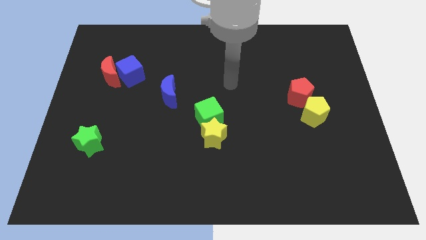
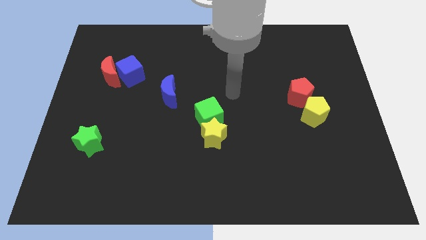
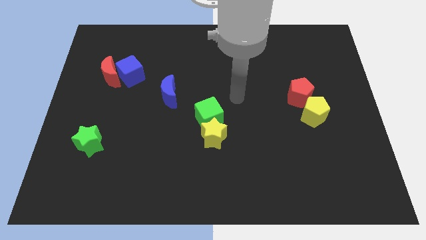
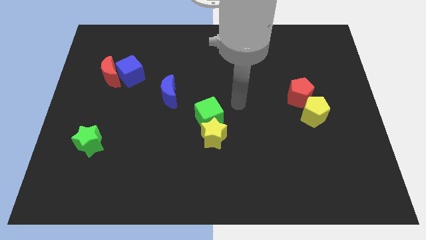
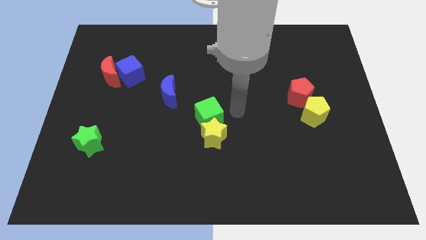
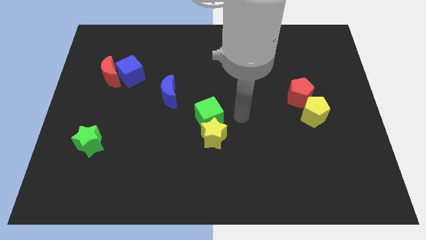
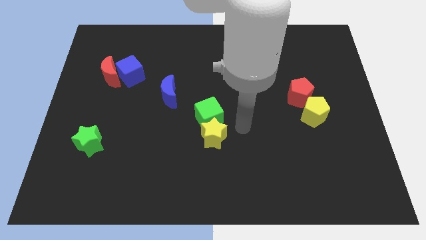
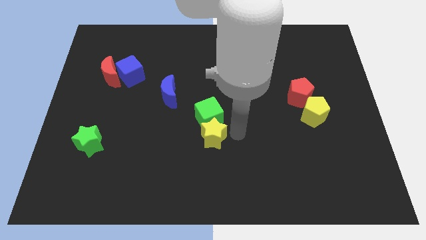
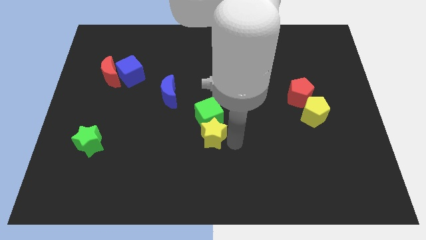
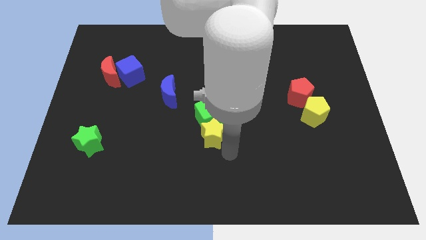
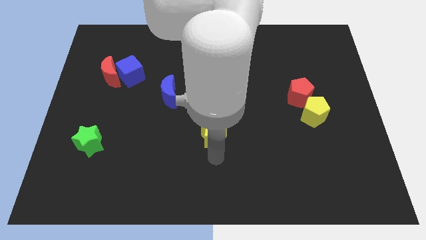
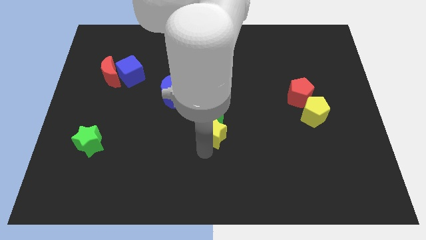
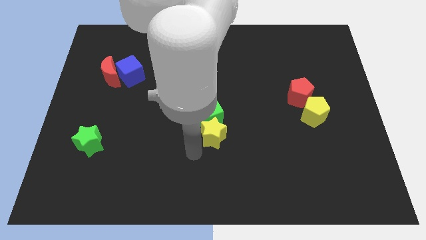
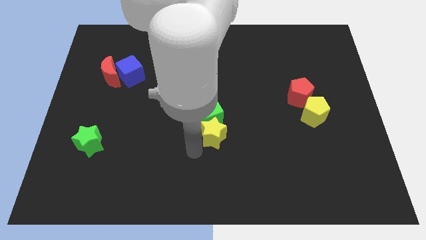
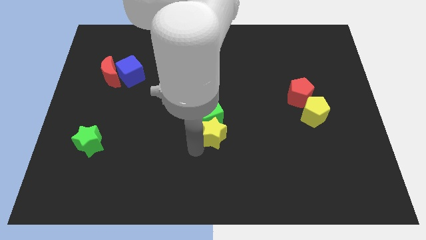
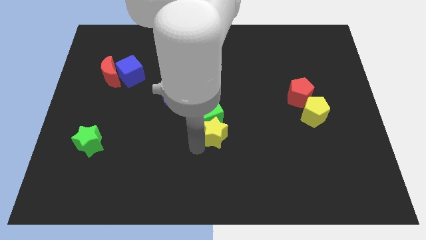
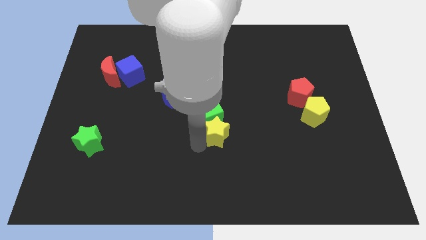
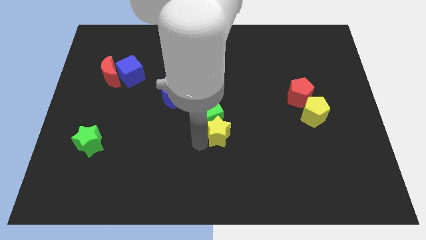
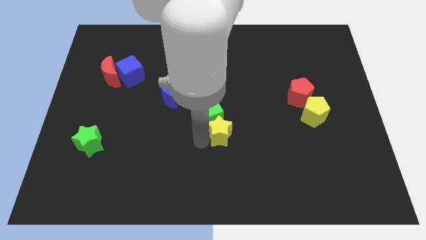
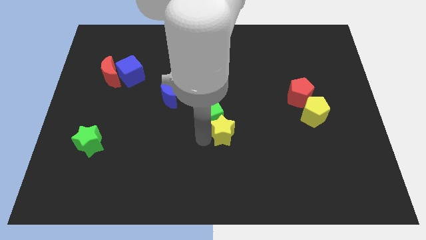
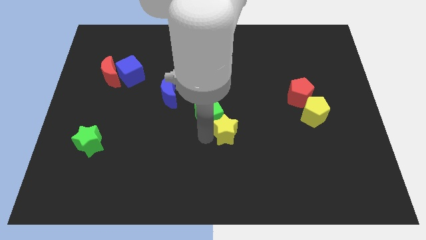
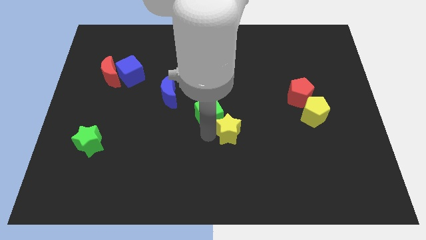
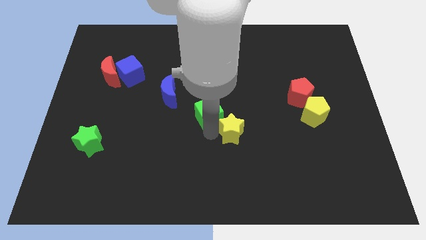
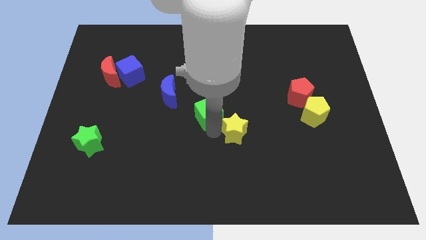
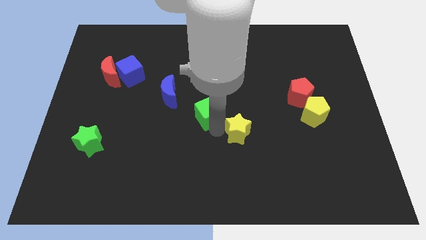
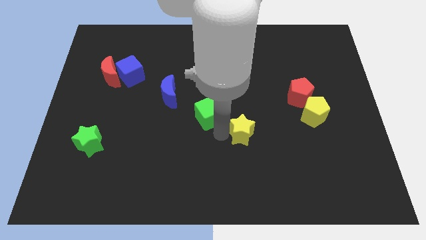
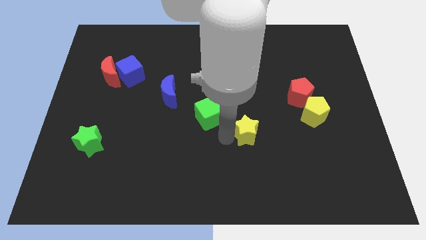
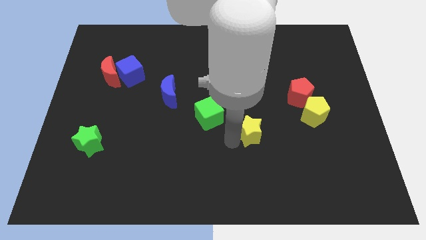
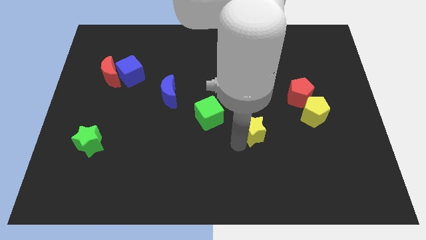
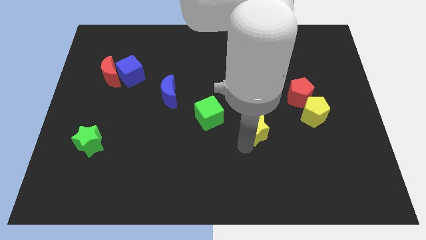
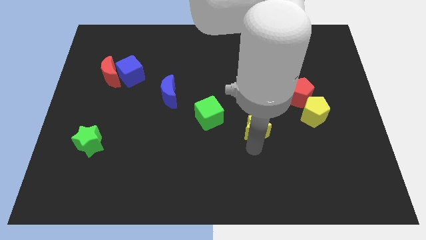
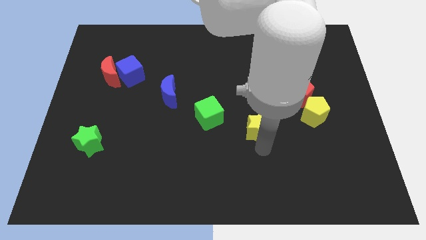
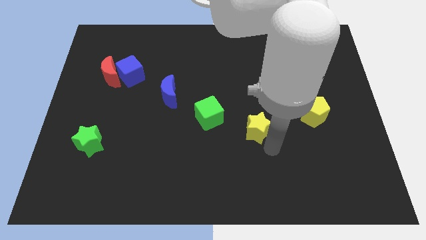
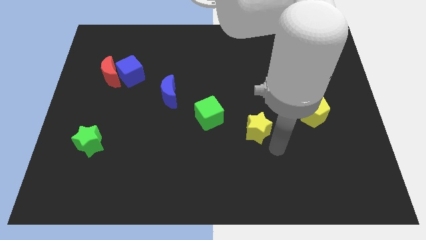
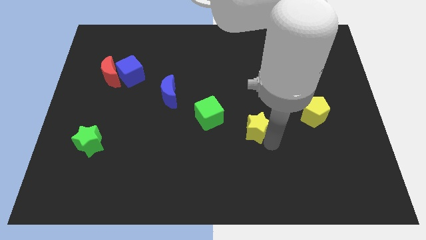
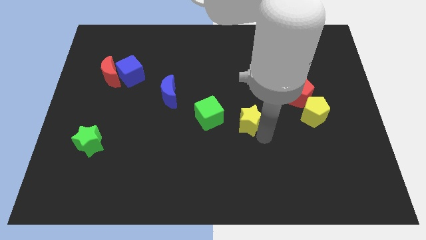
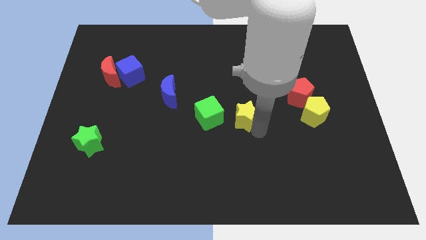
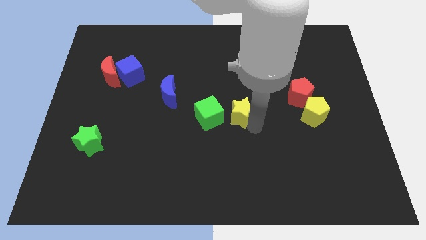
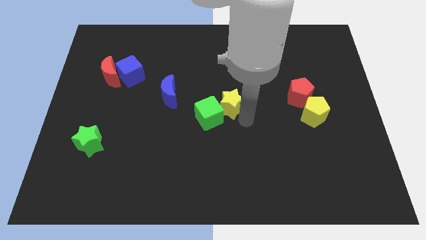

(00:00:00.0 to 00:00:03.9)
move the yellow star up a bit

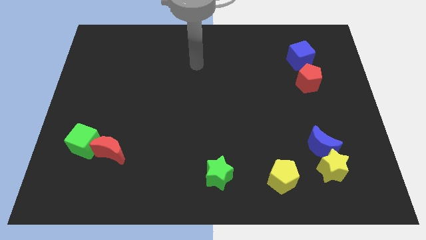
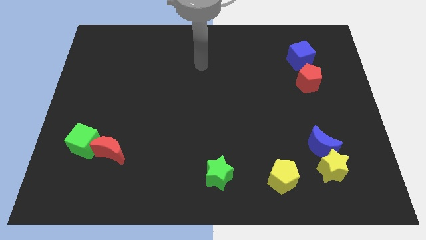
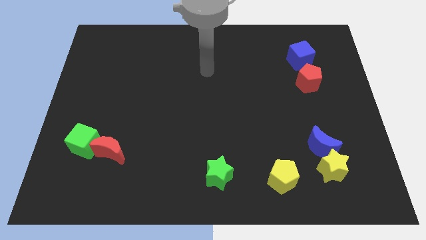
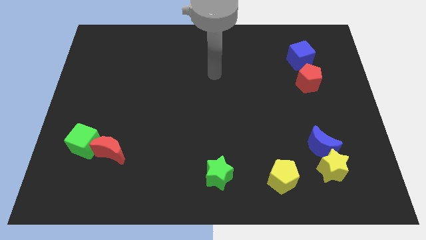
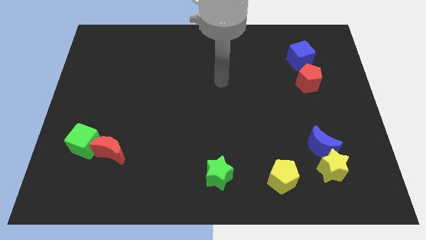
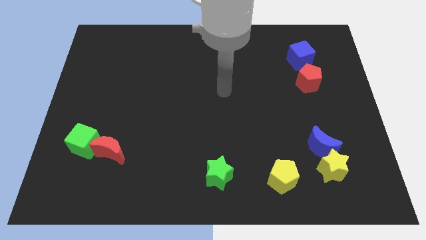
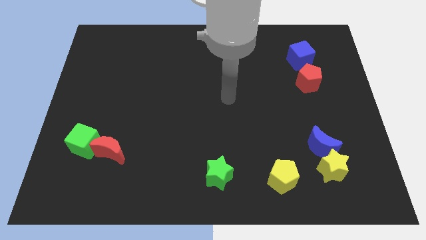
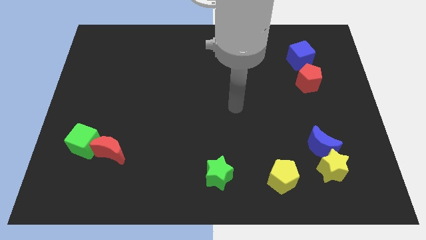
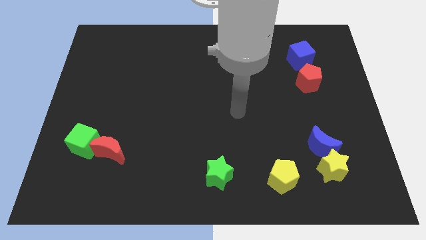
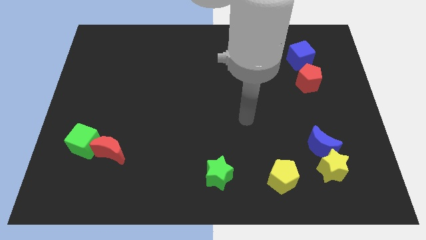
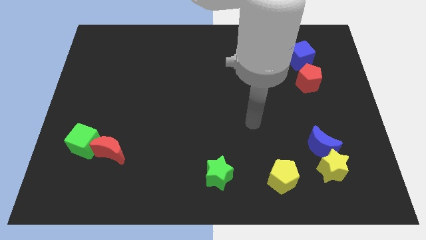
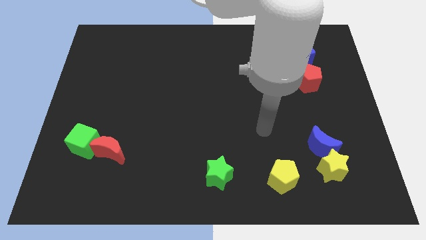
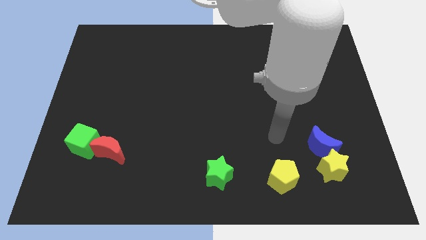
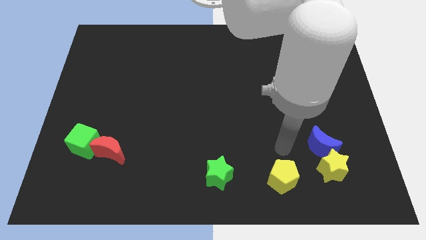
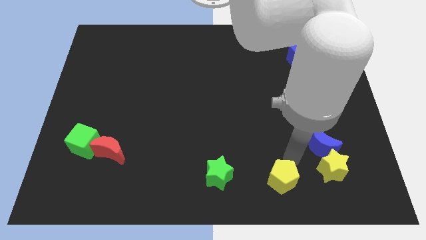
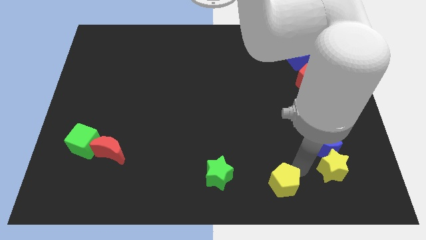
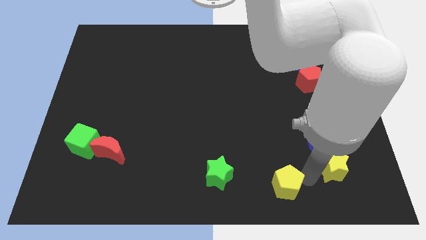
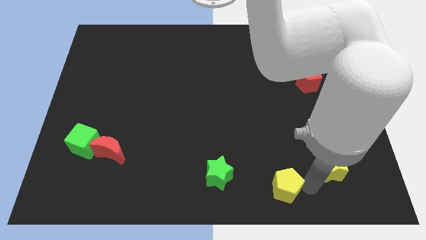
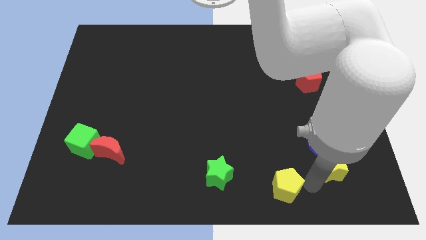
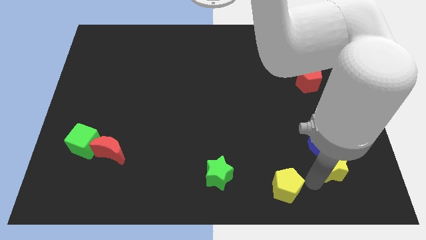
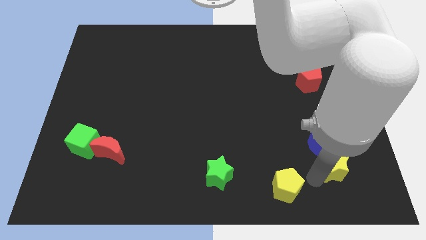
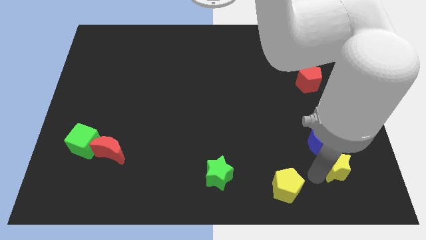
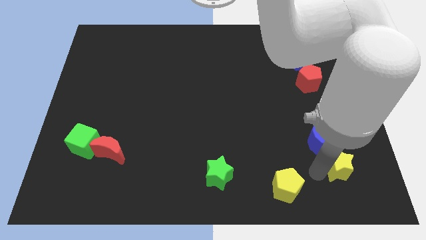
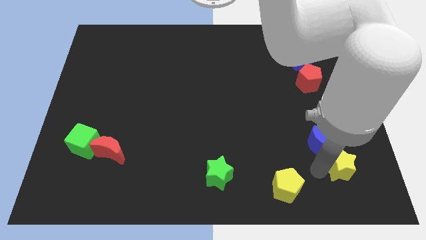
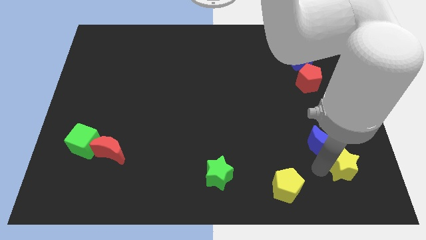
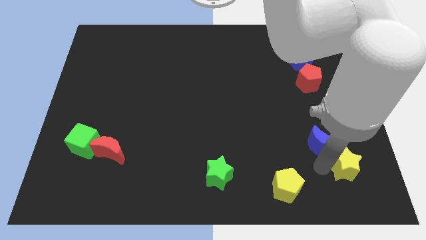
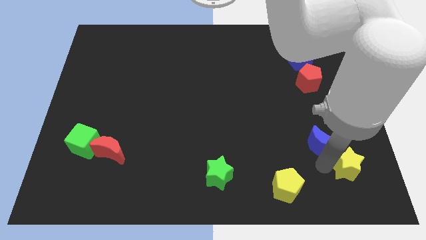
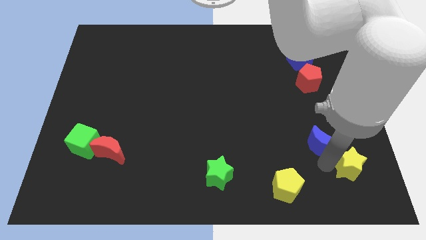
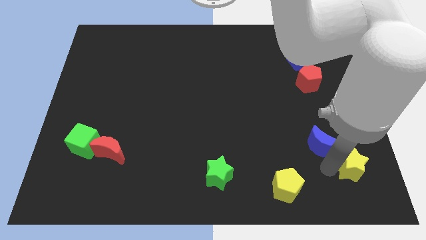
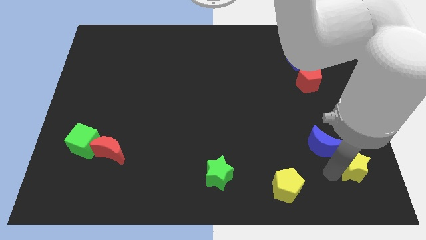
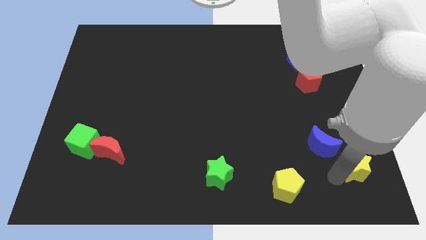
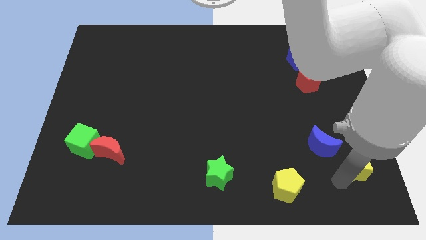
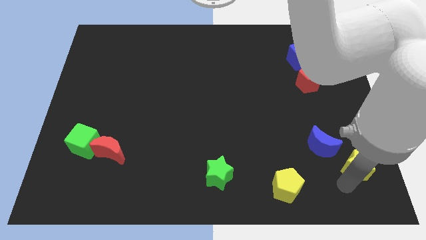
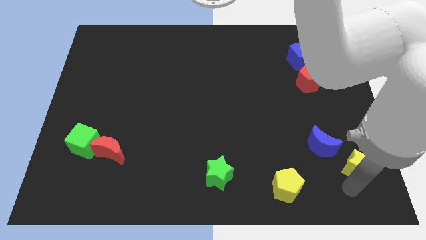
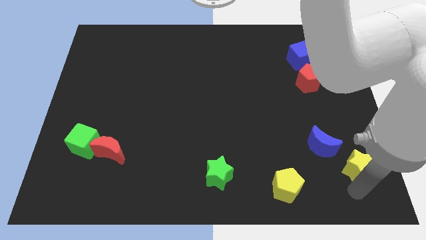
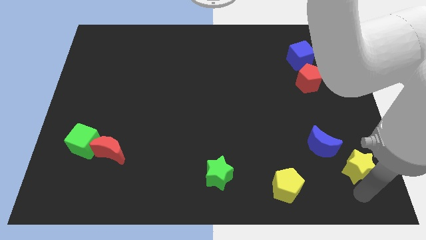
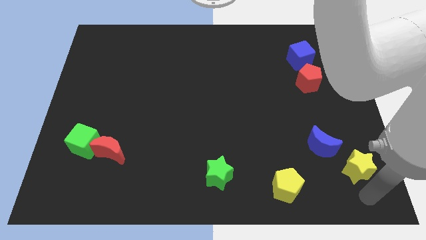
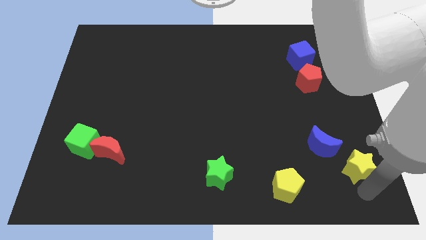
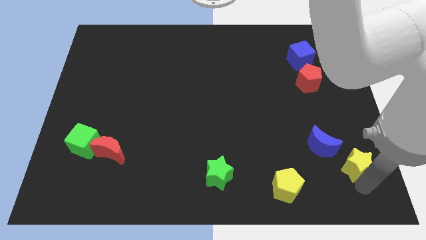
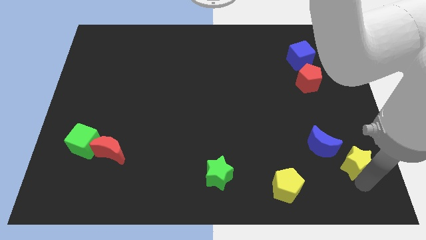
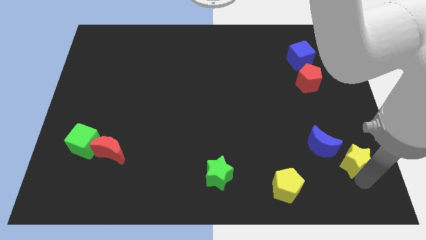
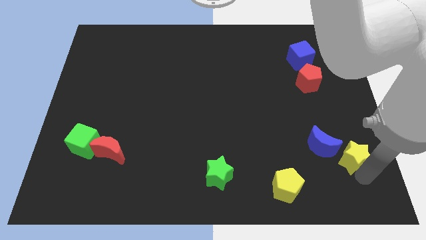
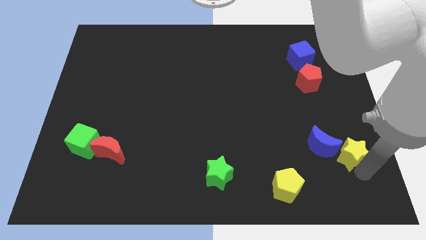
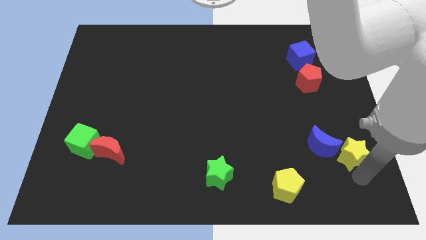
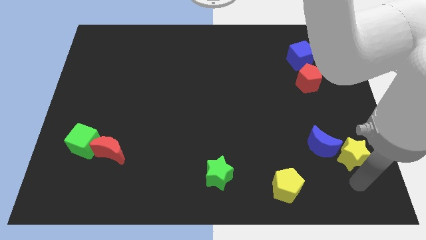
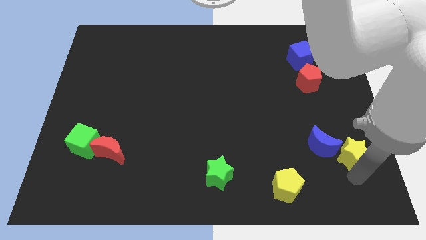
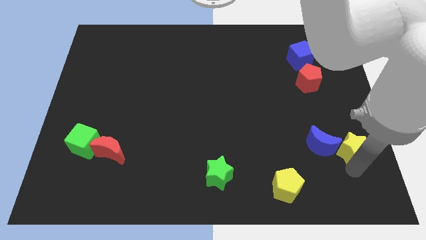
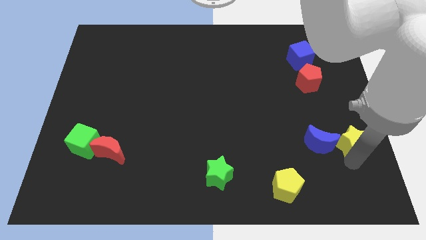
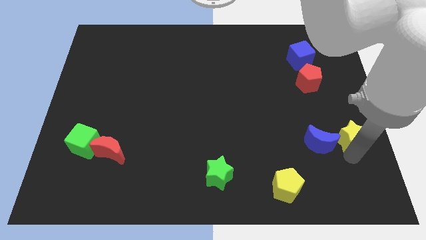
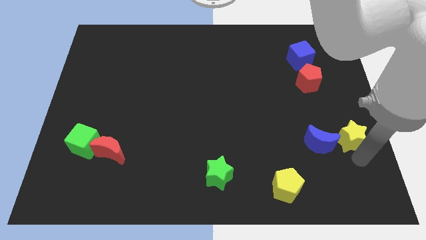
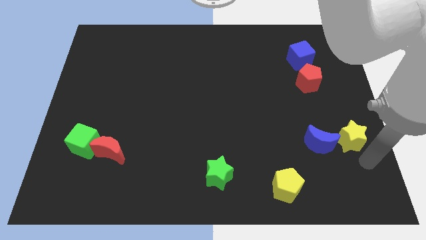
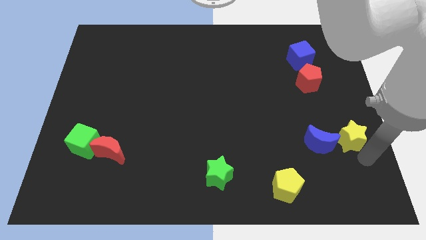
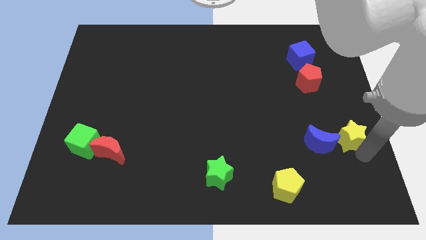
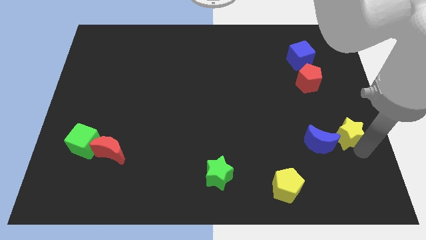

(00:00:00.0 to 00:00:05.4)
push the yellow star a little up
